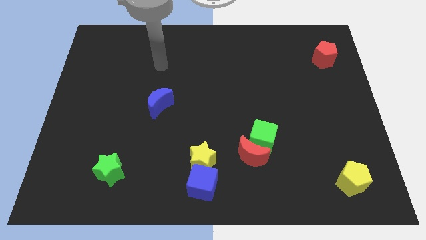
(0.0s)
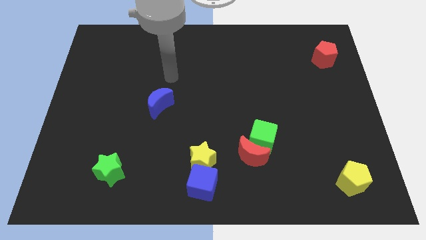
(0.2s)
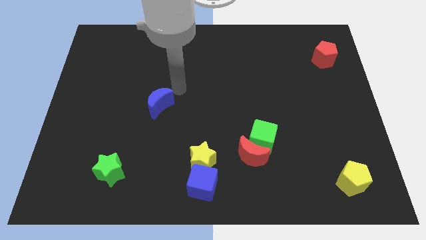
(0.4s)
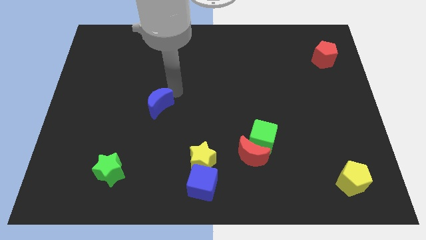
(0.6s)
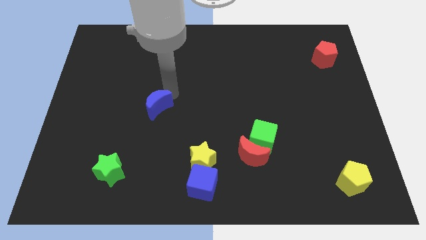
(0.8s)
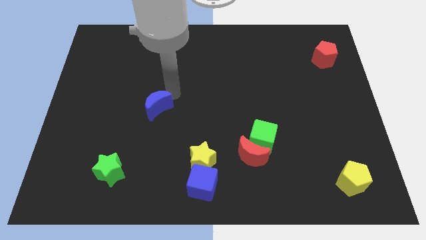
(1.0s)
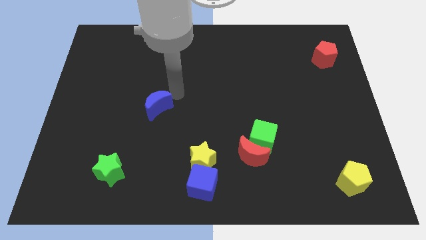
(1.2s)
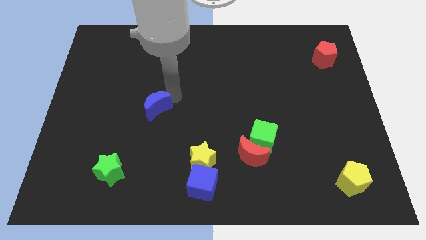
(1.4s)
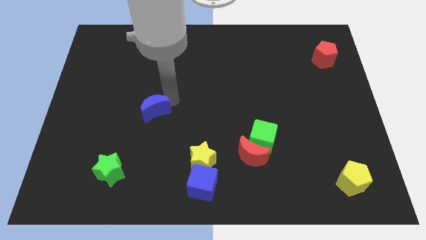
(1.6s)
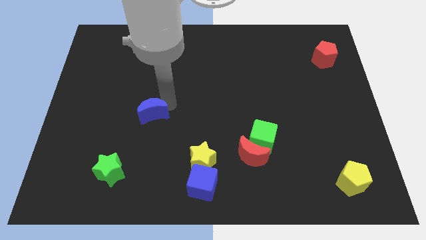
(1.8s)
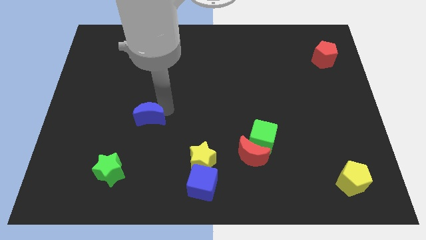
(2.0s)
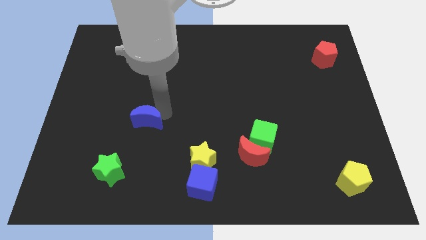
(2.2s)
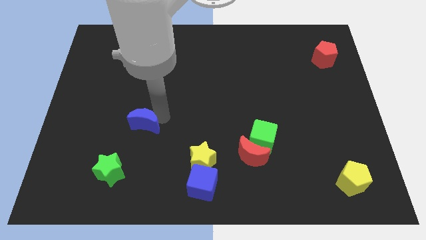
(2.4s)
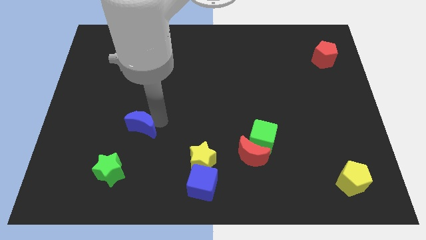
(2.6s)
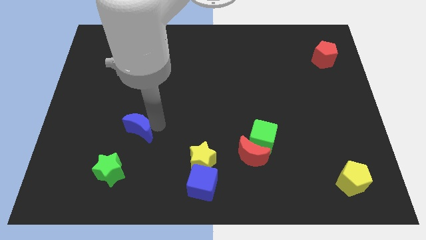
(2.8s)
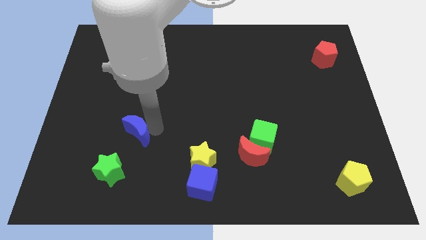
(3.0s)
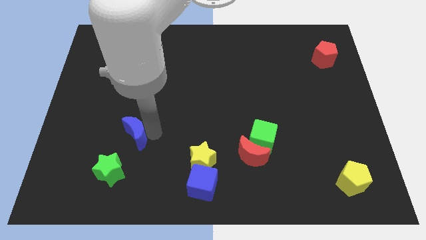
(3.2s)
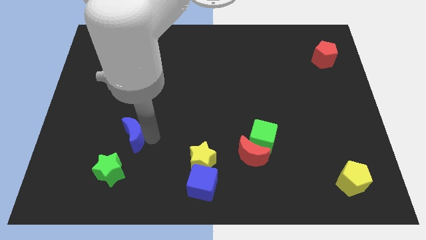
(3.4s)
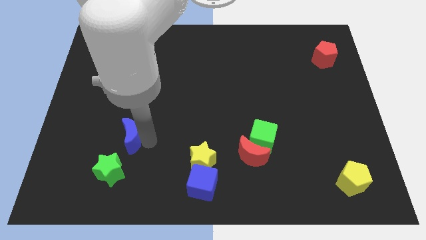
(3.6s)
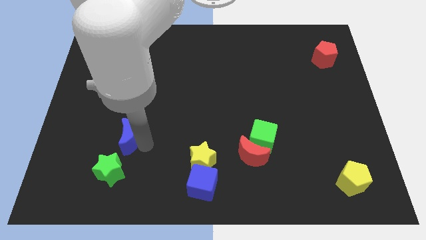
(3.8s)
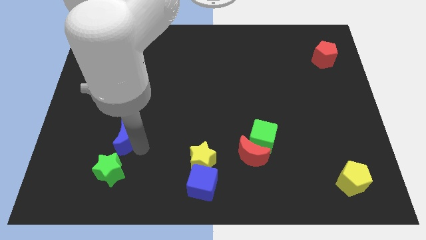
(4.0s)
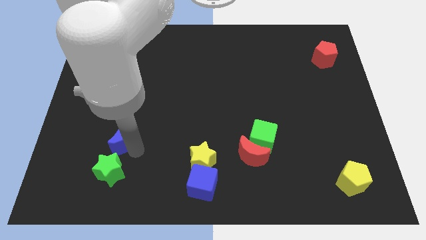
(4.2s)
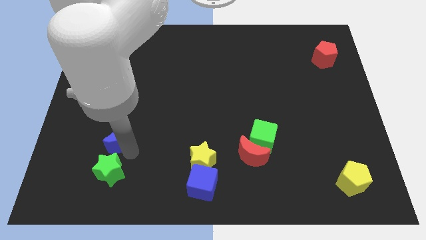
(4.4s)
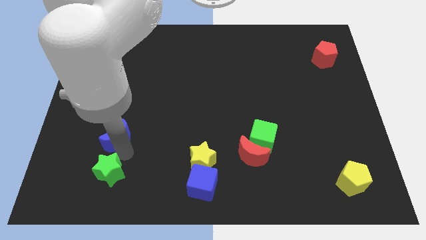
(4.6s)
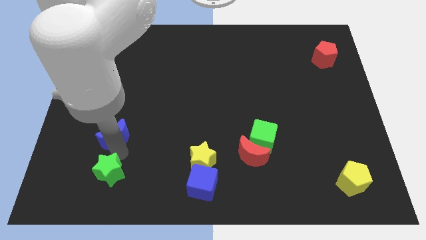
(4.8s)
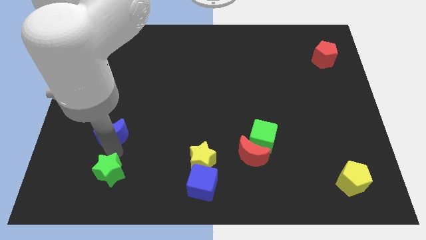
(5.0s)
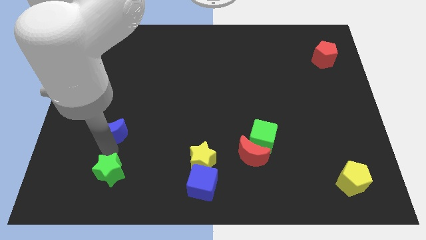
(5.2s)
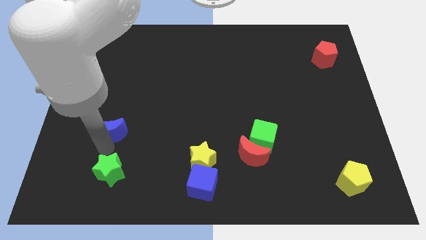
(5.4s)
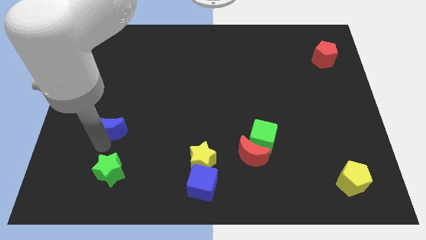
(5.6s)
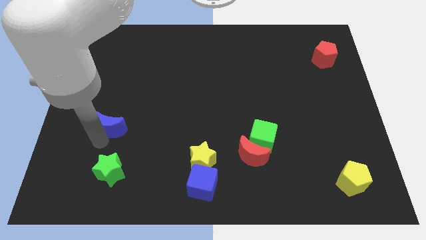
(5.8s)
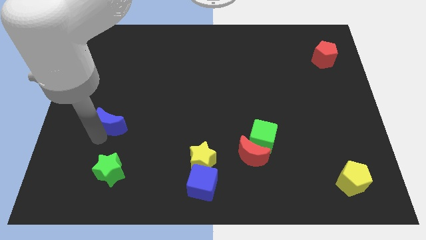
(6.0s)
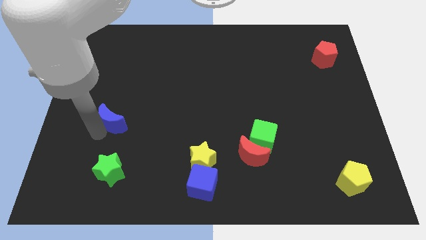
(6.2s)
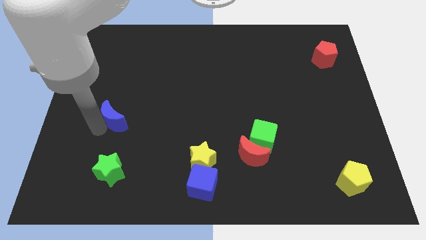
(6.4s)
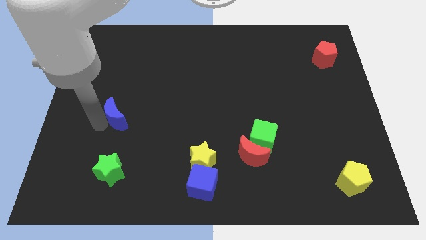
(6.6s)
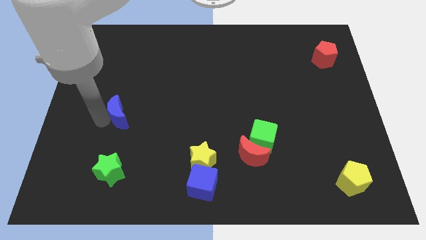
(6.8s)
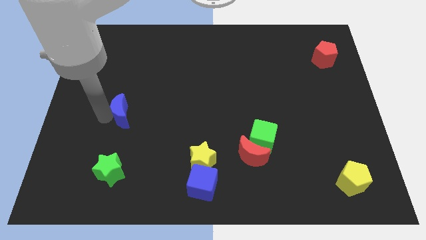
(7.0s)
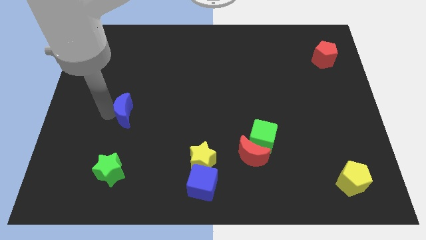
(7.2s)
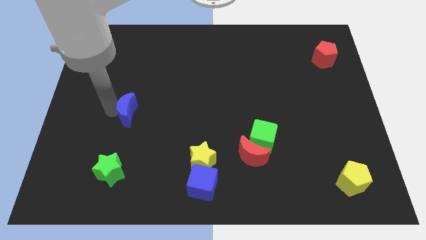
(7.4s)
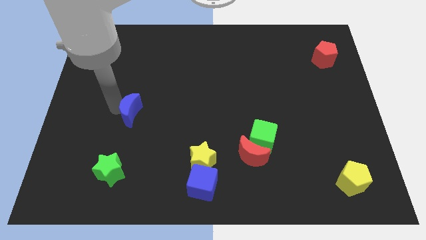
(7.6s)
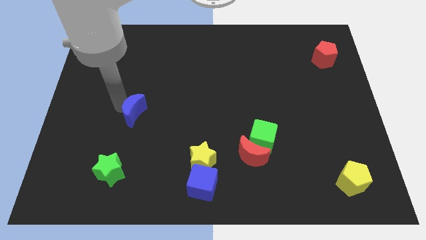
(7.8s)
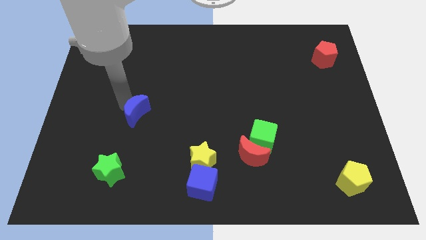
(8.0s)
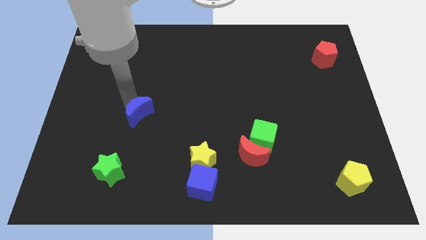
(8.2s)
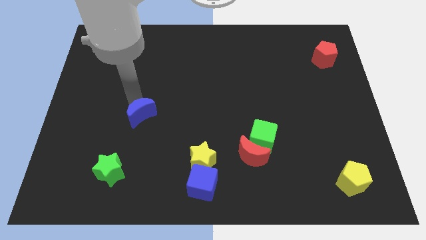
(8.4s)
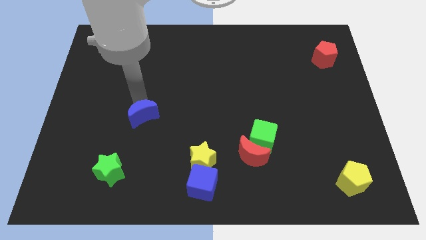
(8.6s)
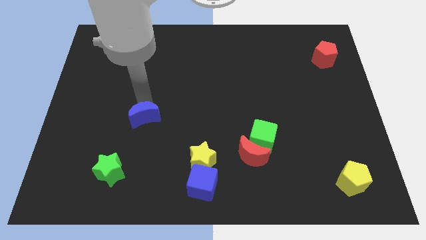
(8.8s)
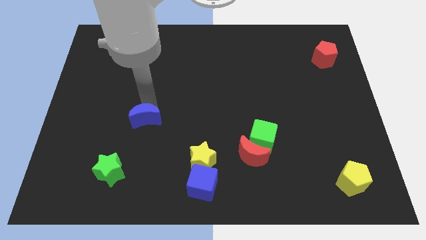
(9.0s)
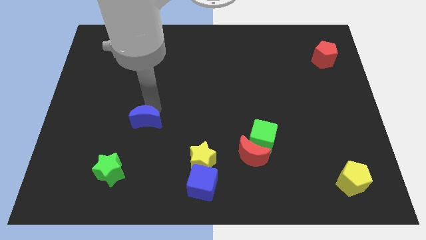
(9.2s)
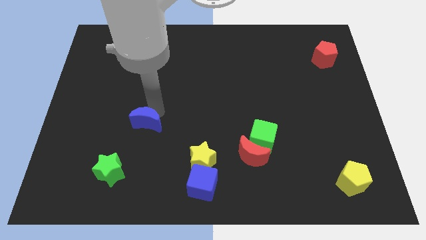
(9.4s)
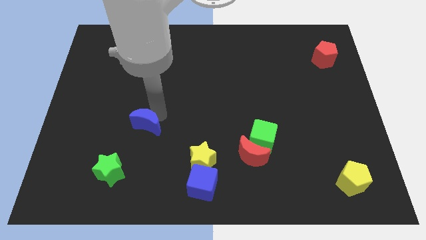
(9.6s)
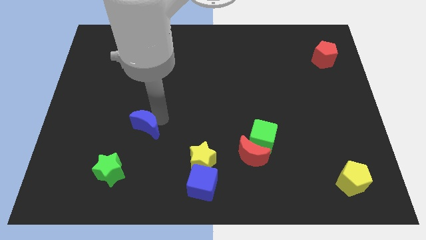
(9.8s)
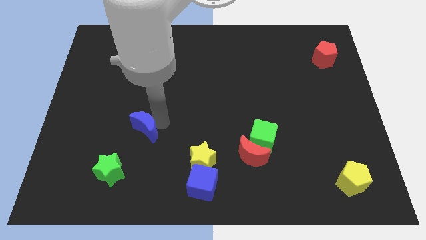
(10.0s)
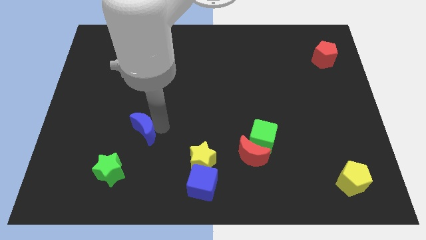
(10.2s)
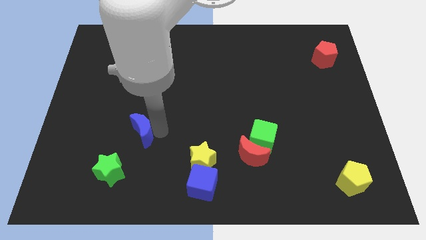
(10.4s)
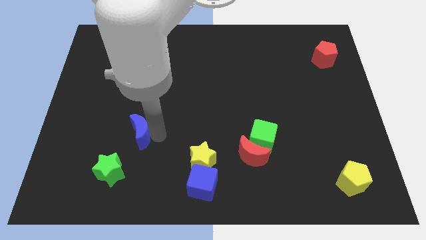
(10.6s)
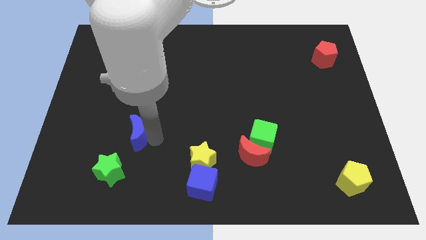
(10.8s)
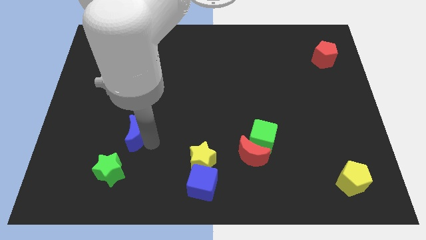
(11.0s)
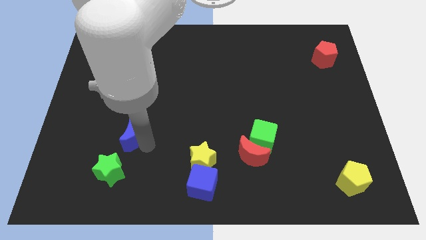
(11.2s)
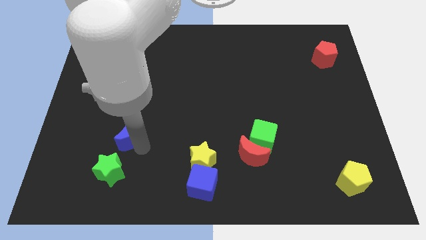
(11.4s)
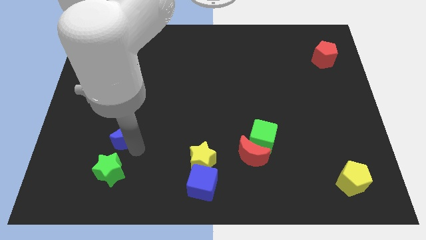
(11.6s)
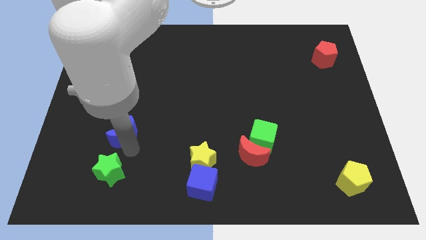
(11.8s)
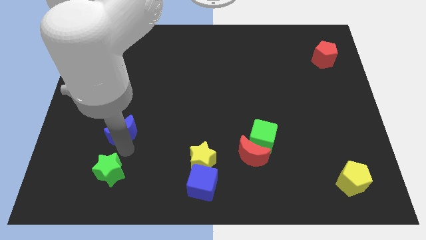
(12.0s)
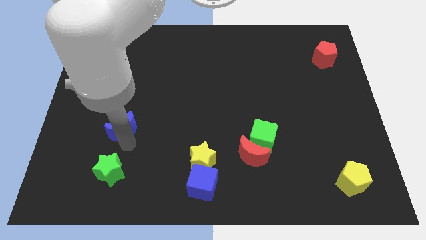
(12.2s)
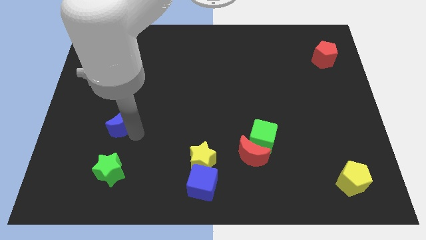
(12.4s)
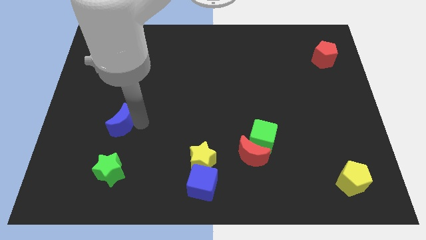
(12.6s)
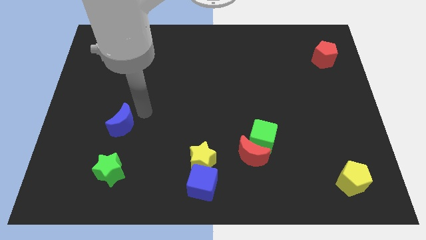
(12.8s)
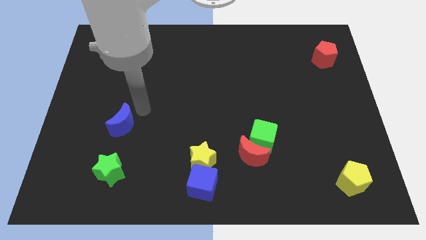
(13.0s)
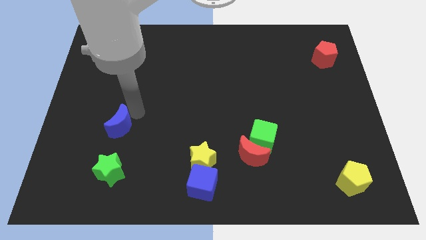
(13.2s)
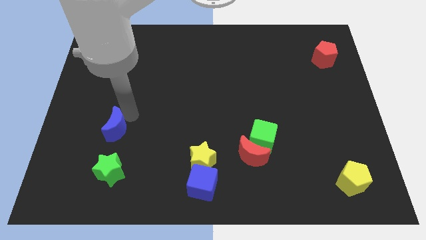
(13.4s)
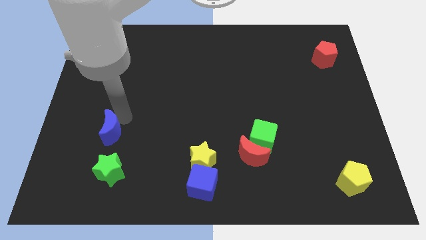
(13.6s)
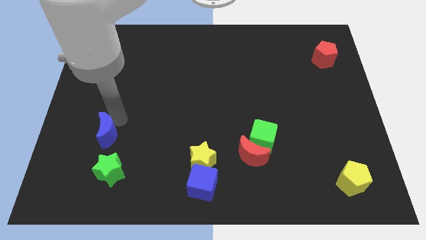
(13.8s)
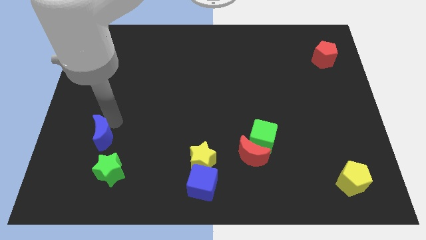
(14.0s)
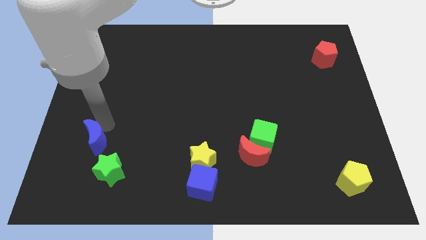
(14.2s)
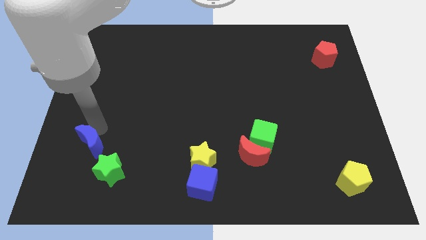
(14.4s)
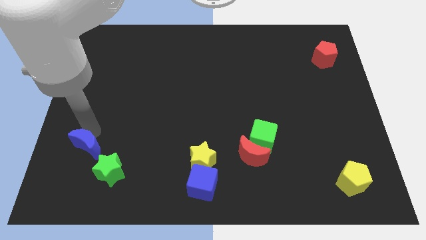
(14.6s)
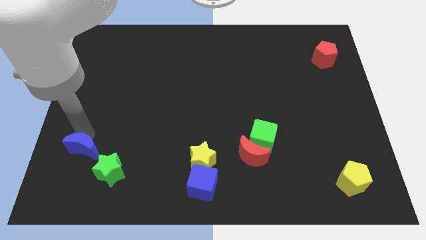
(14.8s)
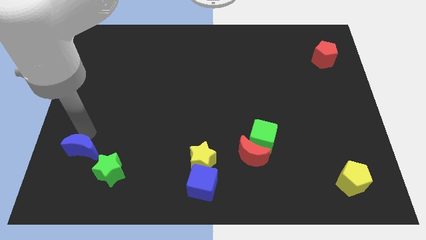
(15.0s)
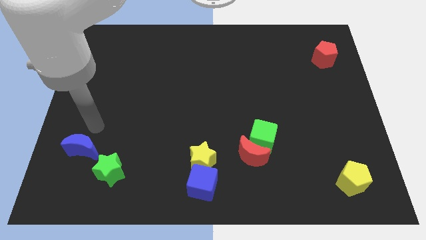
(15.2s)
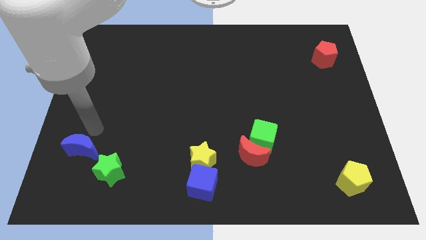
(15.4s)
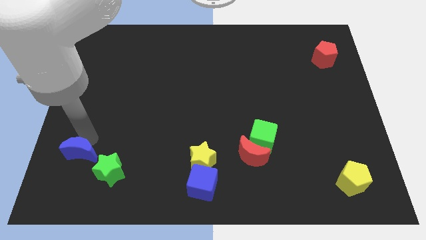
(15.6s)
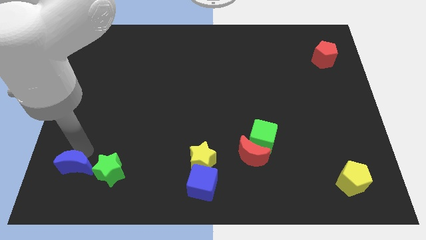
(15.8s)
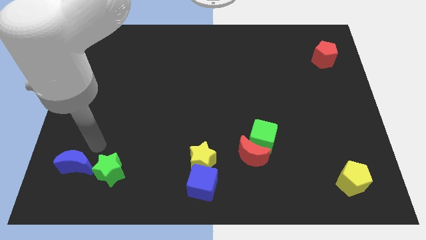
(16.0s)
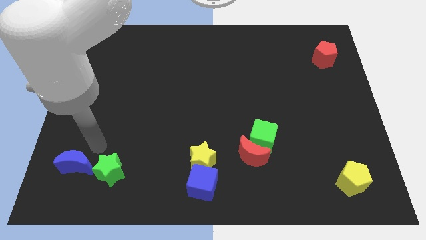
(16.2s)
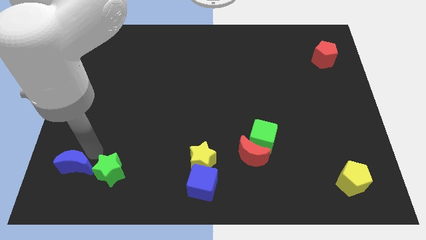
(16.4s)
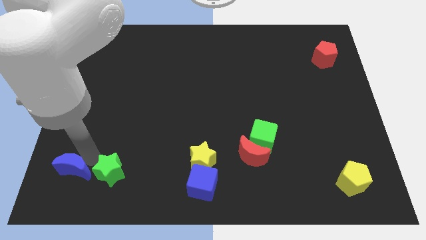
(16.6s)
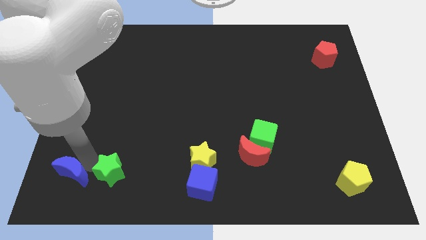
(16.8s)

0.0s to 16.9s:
put the blue moon to the bottom left corner
